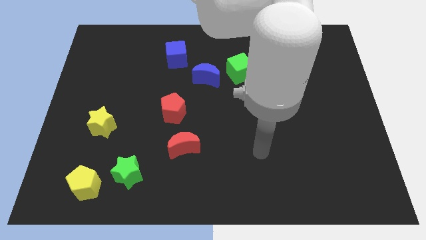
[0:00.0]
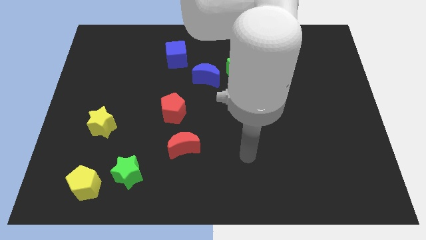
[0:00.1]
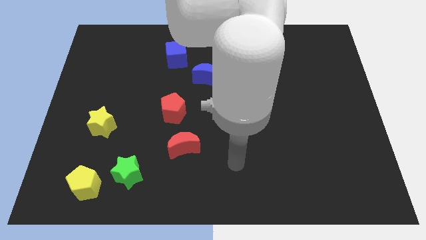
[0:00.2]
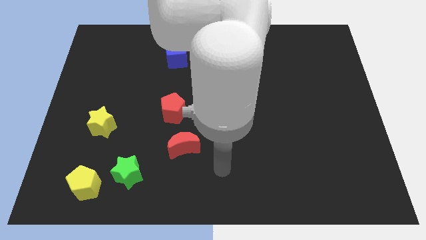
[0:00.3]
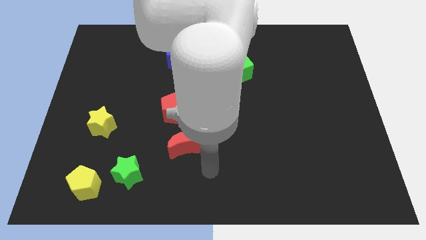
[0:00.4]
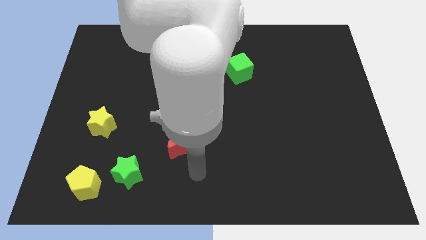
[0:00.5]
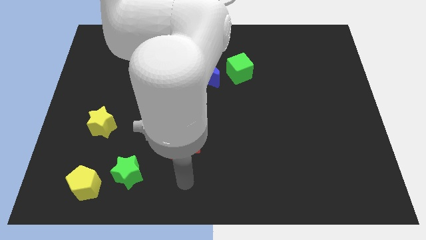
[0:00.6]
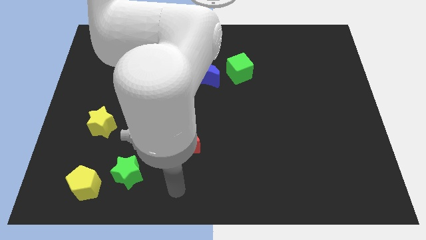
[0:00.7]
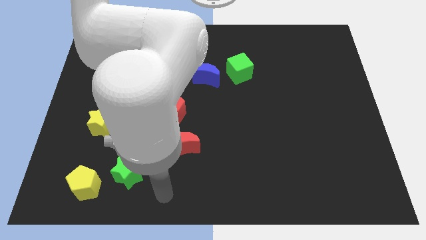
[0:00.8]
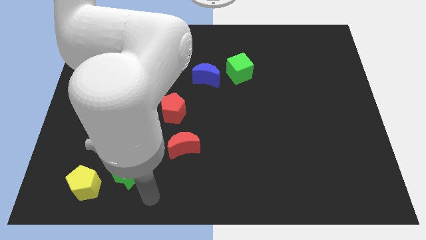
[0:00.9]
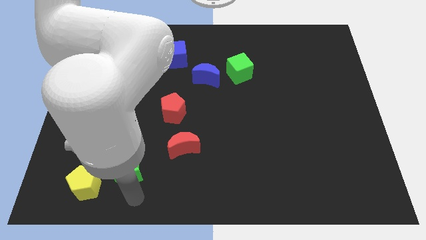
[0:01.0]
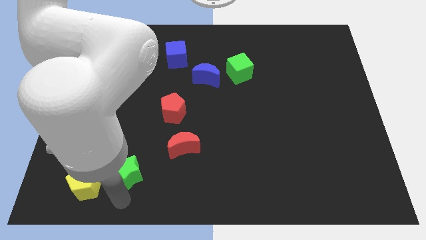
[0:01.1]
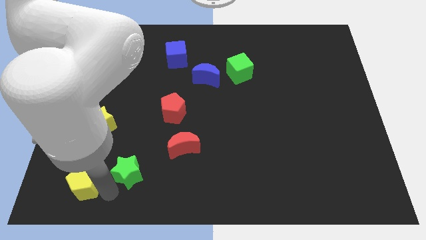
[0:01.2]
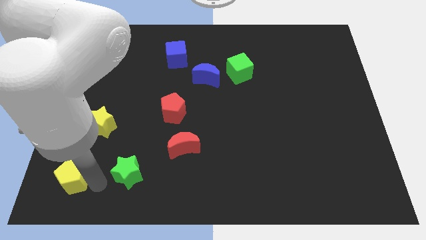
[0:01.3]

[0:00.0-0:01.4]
pull the green star apart from the yellow pentagon

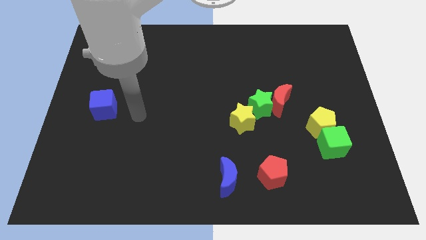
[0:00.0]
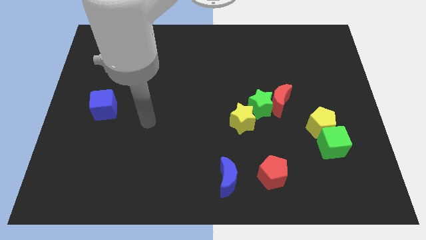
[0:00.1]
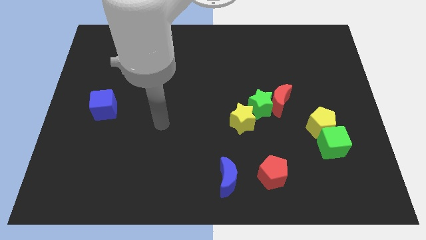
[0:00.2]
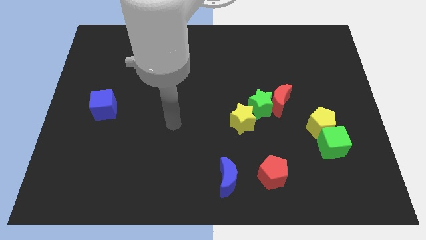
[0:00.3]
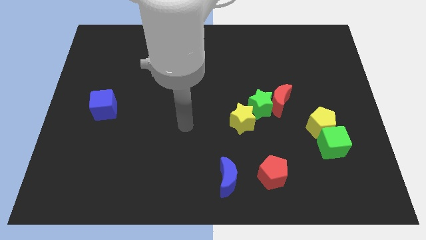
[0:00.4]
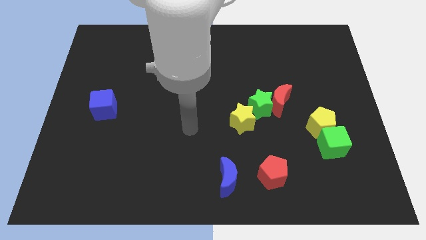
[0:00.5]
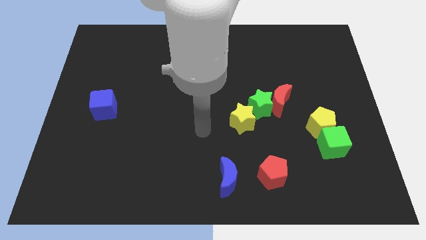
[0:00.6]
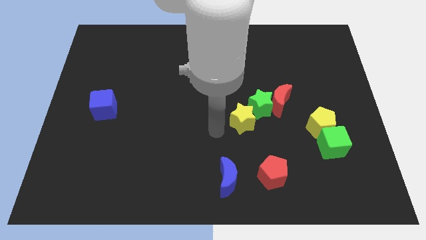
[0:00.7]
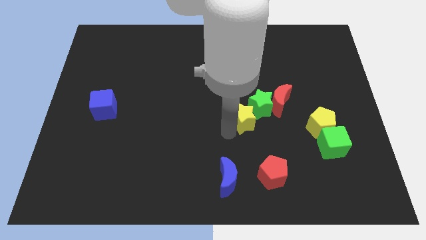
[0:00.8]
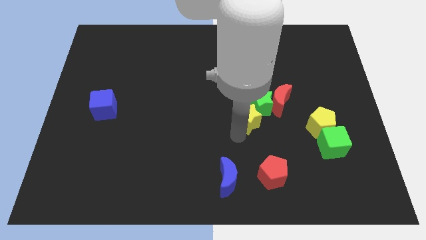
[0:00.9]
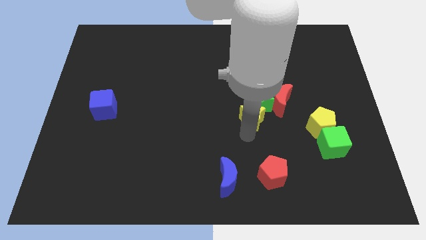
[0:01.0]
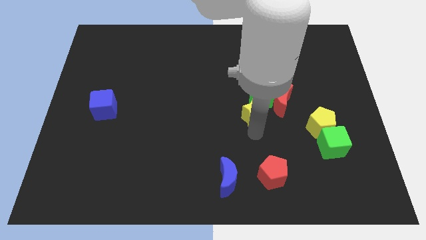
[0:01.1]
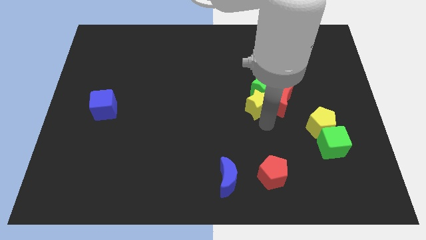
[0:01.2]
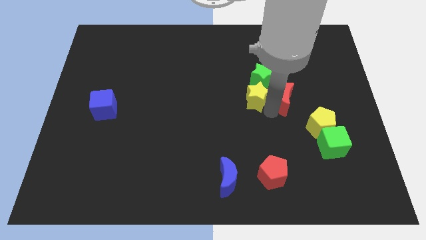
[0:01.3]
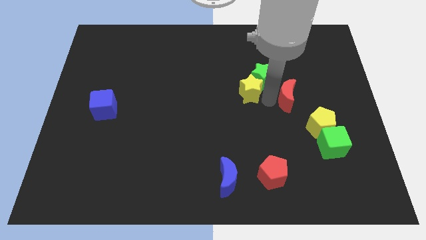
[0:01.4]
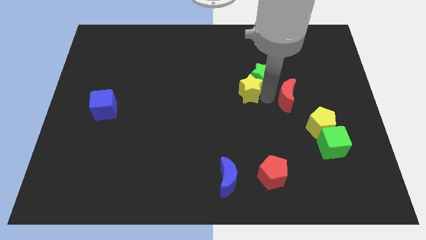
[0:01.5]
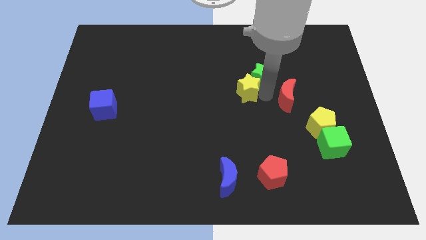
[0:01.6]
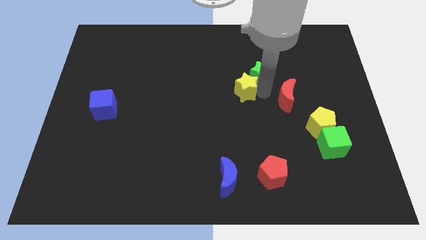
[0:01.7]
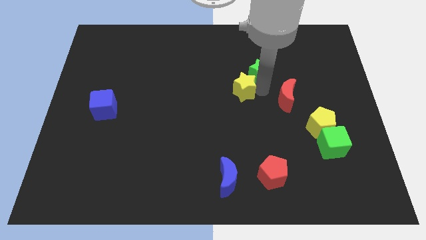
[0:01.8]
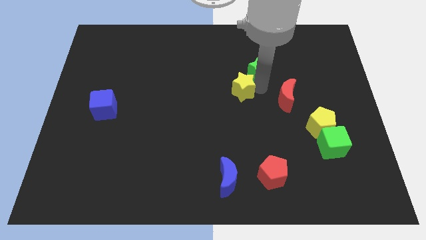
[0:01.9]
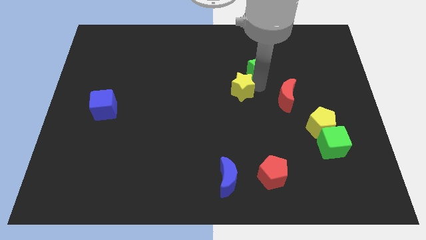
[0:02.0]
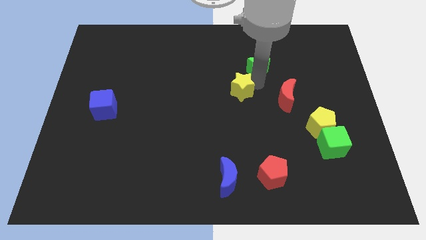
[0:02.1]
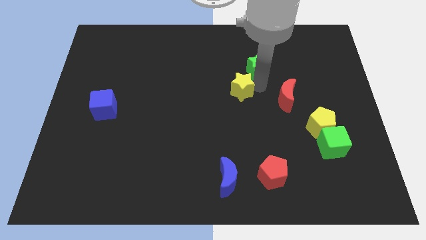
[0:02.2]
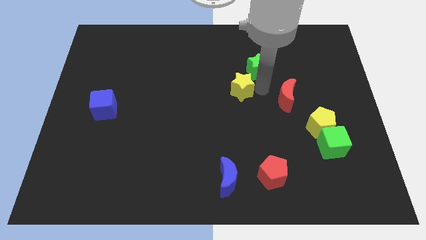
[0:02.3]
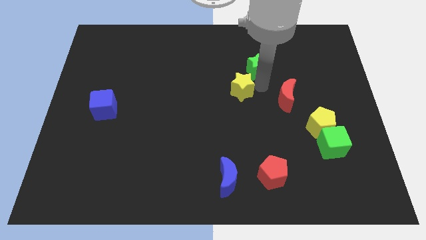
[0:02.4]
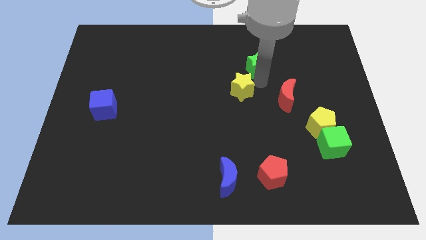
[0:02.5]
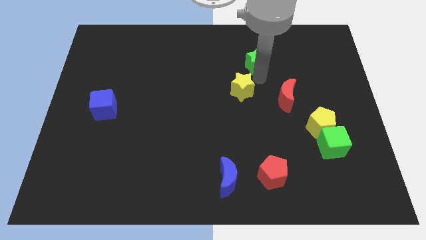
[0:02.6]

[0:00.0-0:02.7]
pull the green star apart from the red moon and yellow star

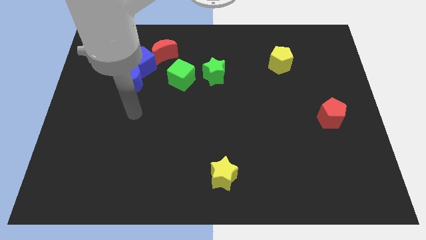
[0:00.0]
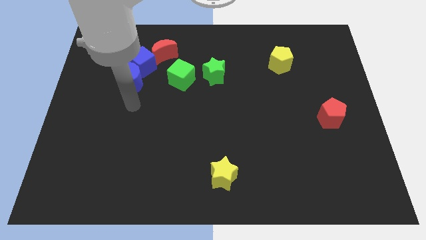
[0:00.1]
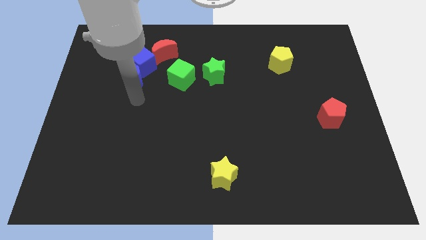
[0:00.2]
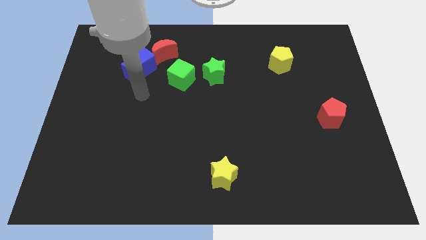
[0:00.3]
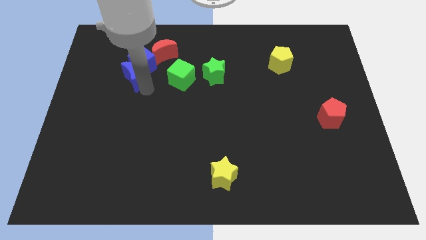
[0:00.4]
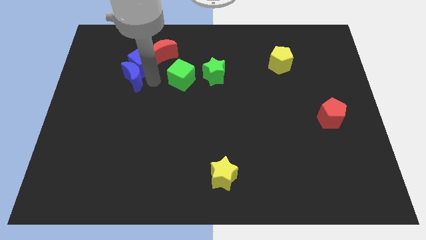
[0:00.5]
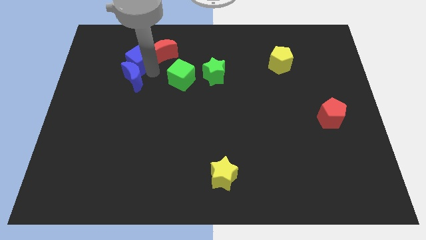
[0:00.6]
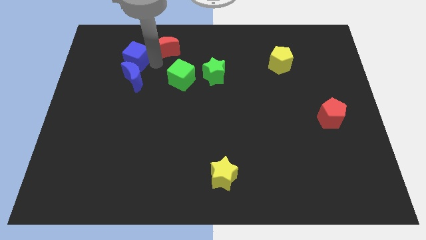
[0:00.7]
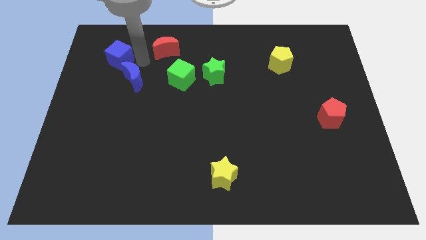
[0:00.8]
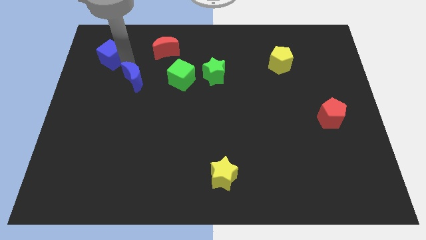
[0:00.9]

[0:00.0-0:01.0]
pull the blue moon apart from the blue cube

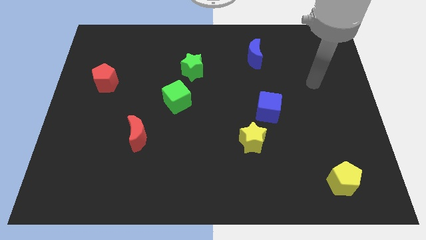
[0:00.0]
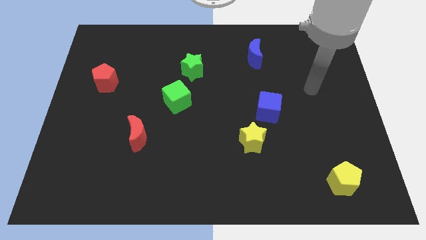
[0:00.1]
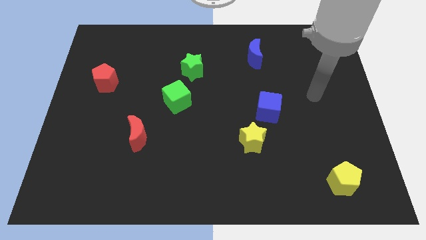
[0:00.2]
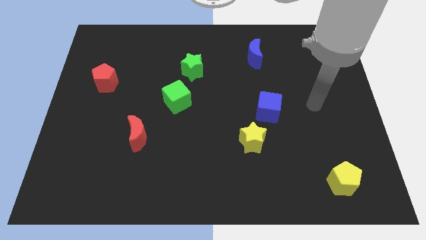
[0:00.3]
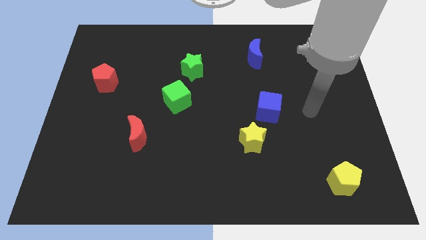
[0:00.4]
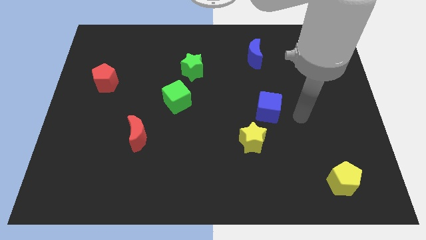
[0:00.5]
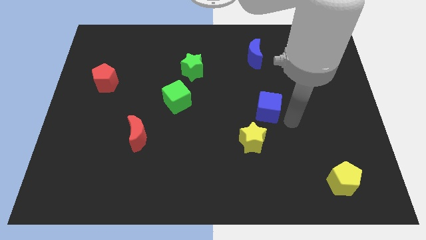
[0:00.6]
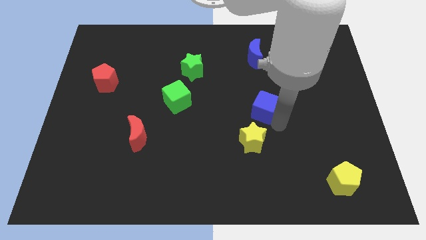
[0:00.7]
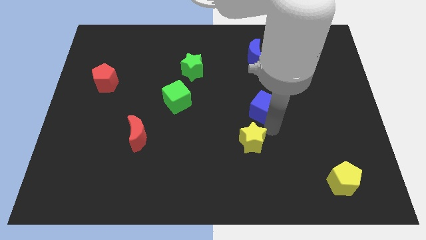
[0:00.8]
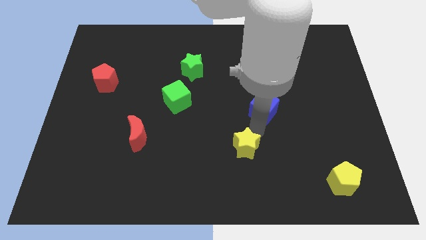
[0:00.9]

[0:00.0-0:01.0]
separate the blue cube from the yellow star

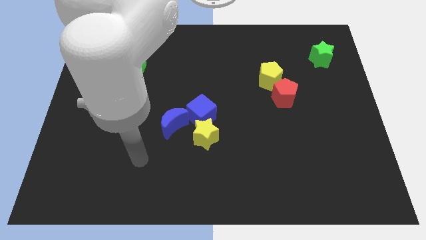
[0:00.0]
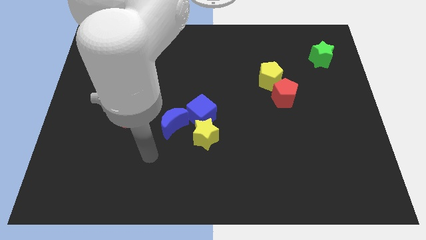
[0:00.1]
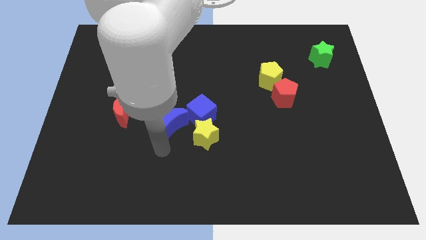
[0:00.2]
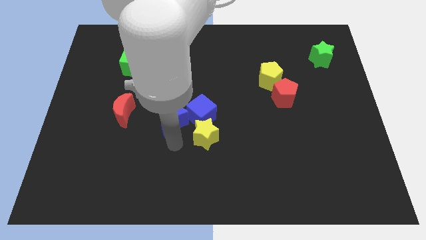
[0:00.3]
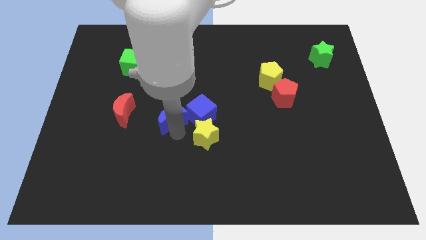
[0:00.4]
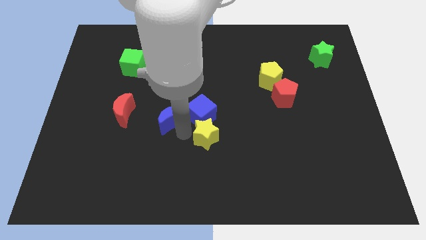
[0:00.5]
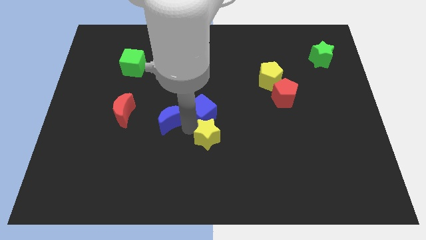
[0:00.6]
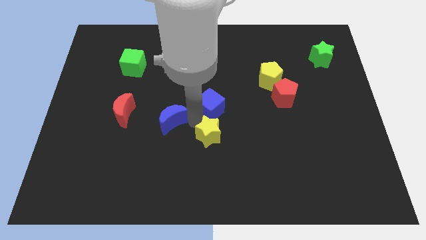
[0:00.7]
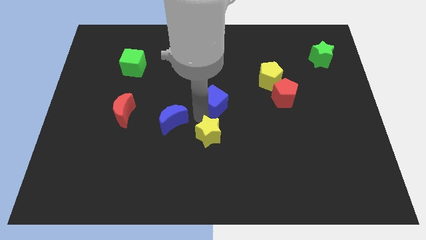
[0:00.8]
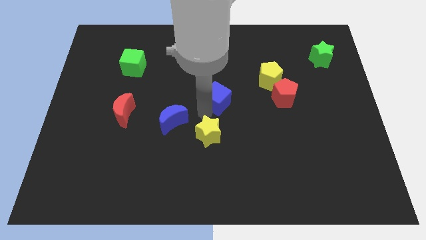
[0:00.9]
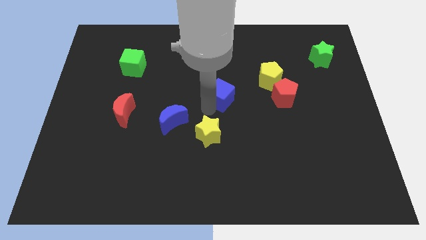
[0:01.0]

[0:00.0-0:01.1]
separate the blue cube from the yellow star and blue moon

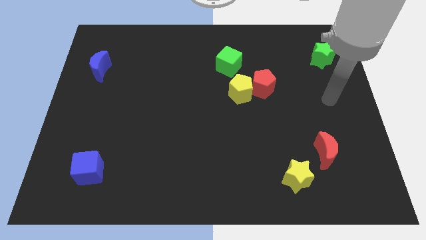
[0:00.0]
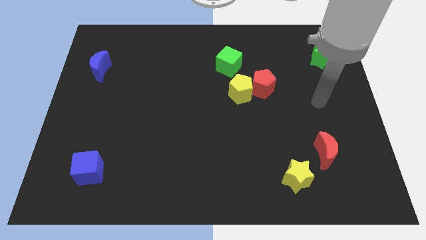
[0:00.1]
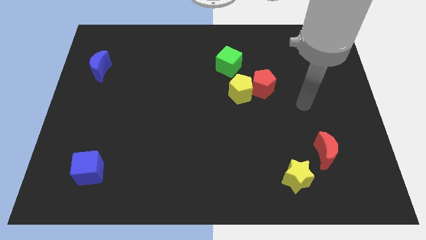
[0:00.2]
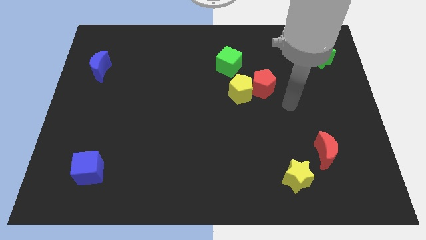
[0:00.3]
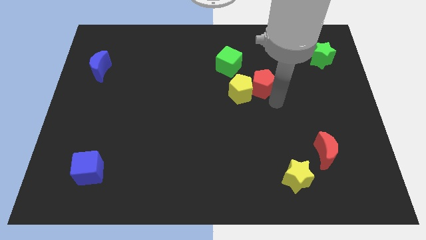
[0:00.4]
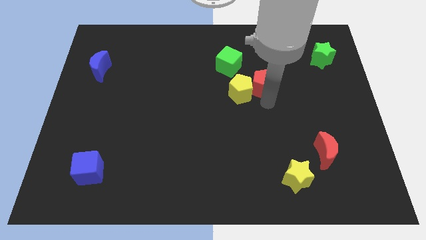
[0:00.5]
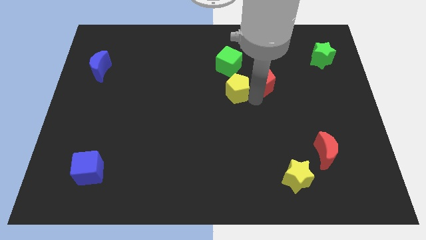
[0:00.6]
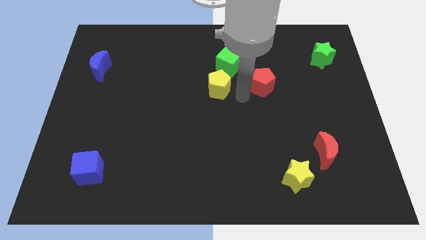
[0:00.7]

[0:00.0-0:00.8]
separate the red pentagon from the yellow pentagon

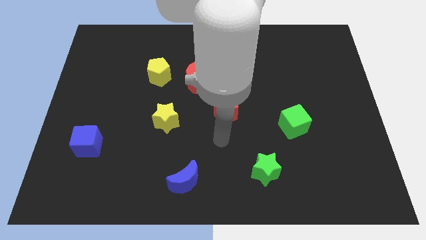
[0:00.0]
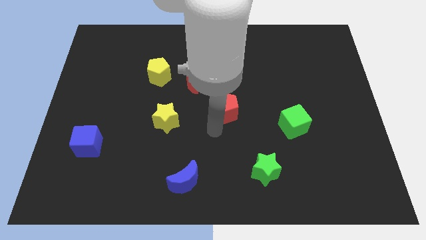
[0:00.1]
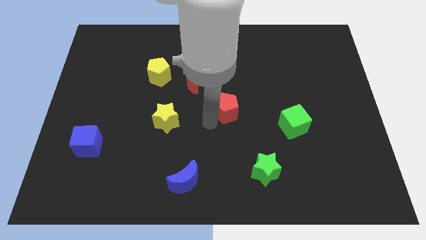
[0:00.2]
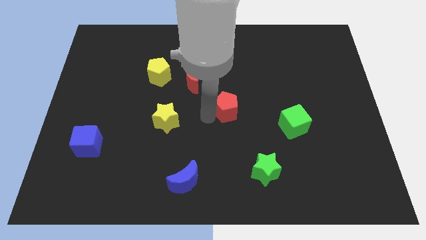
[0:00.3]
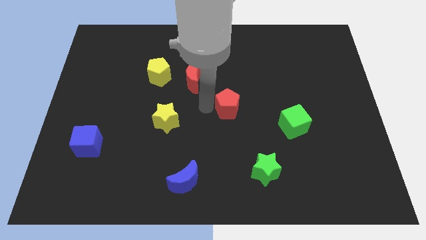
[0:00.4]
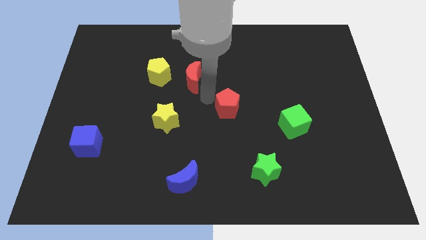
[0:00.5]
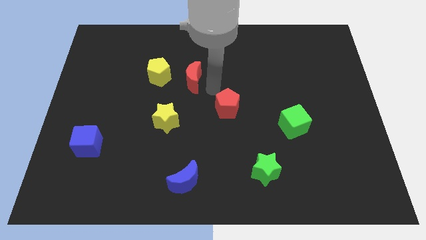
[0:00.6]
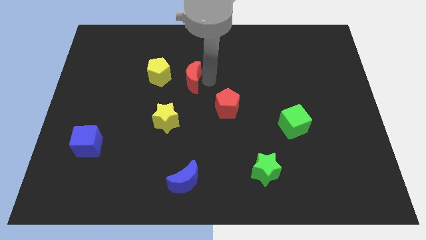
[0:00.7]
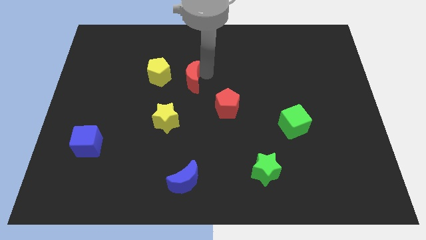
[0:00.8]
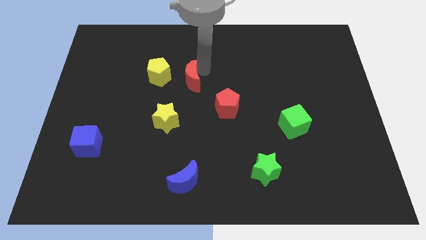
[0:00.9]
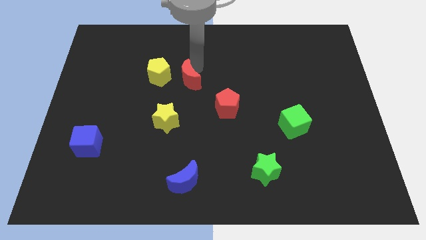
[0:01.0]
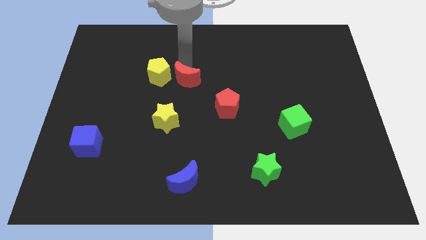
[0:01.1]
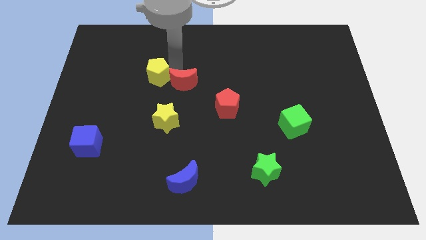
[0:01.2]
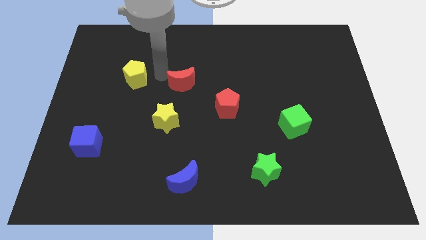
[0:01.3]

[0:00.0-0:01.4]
separate the red moon from the yellow pentagon

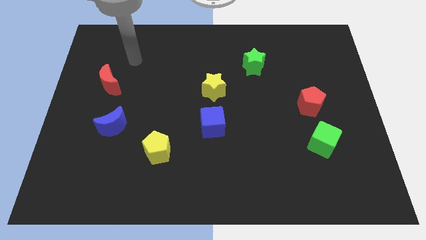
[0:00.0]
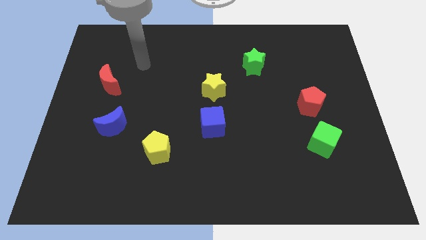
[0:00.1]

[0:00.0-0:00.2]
pull the blue cube apart from the yellow star
